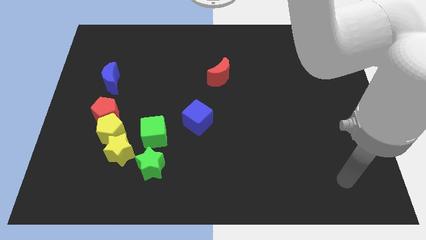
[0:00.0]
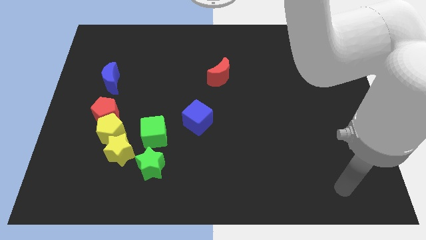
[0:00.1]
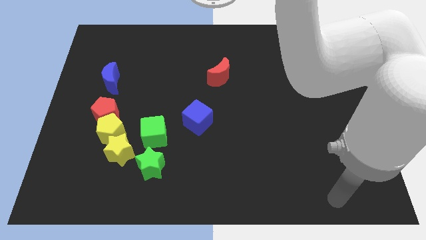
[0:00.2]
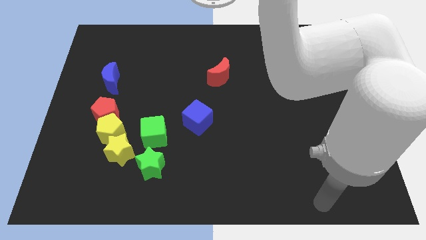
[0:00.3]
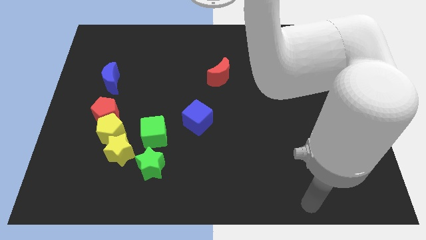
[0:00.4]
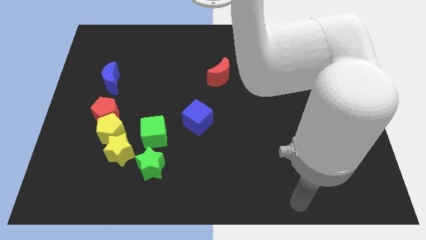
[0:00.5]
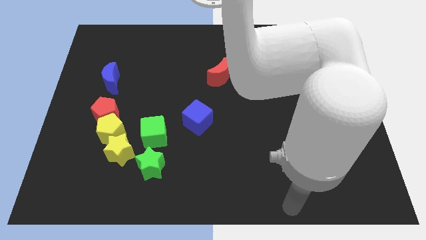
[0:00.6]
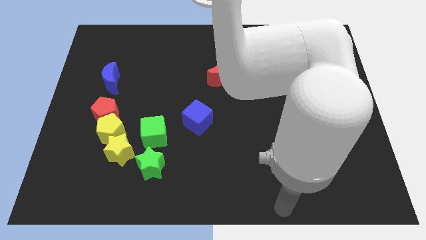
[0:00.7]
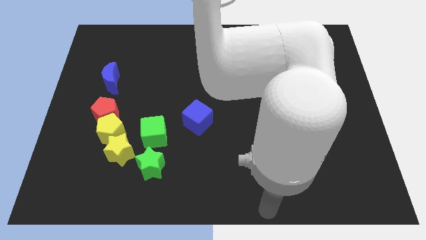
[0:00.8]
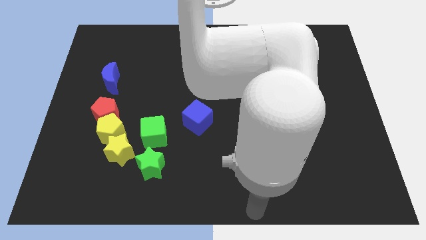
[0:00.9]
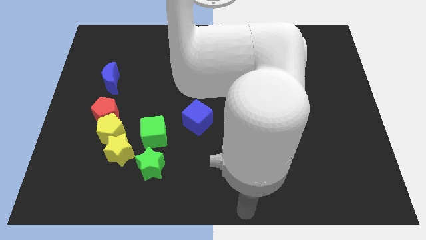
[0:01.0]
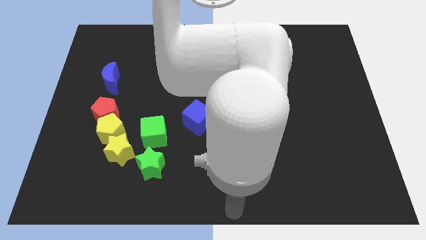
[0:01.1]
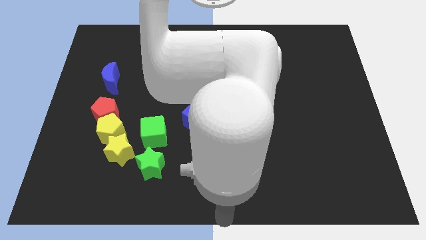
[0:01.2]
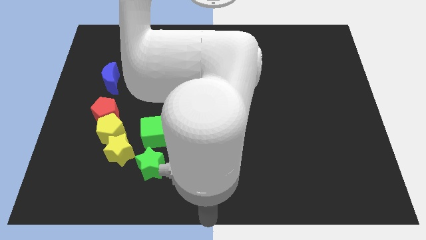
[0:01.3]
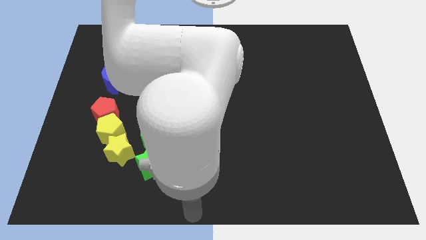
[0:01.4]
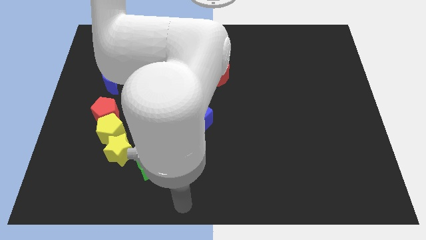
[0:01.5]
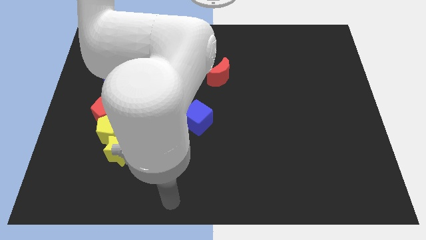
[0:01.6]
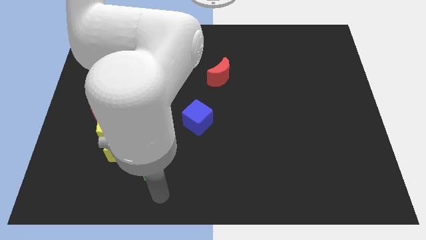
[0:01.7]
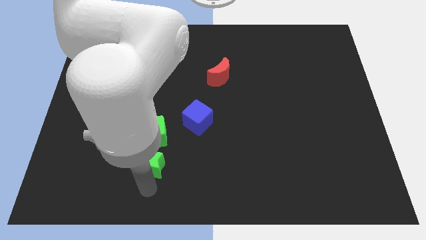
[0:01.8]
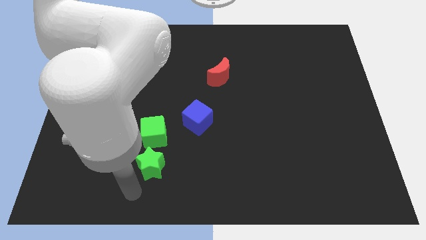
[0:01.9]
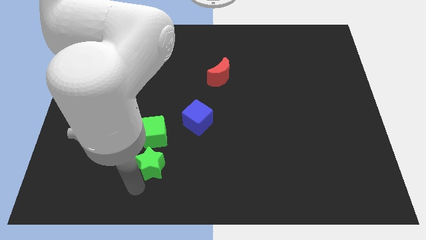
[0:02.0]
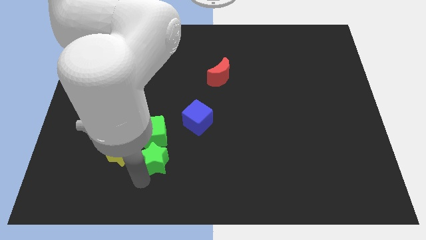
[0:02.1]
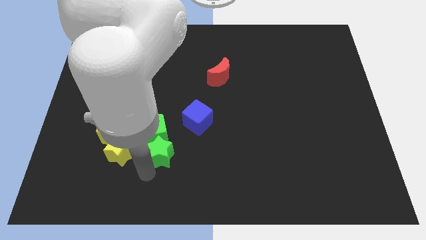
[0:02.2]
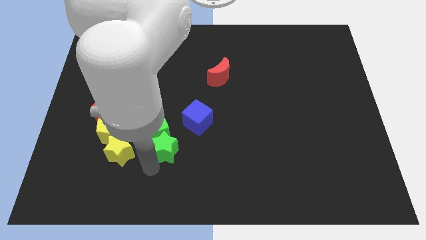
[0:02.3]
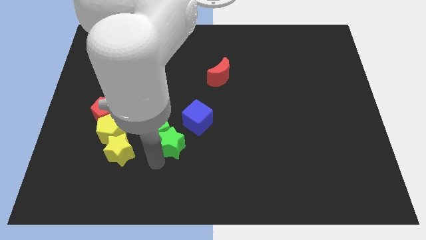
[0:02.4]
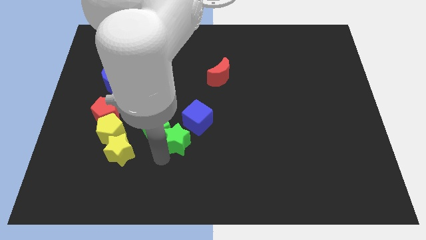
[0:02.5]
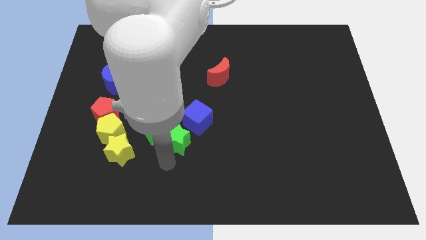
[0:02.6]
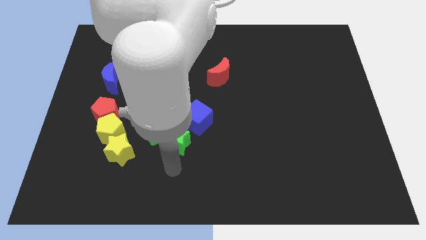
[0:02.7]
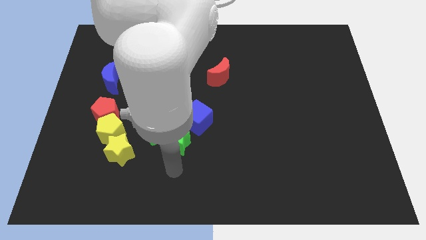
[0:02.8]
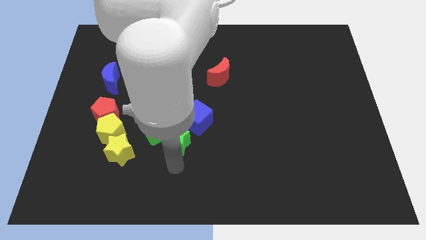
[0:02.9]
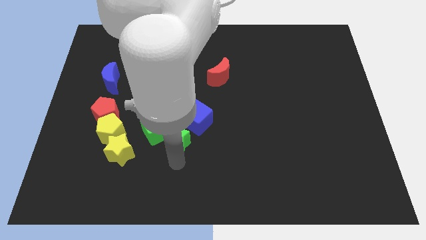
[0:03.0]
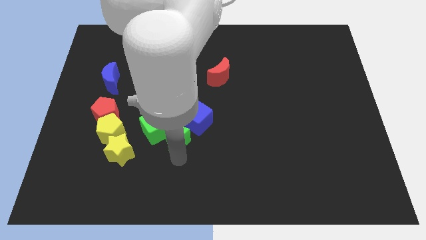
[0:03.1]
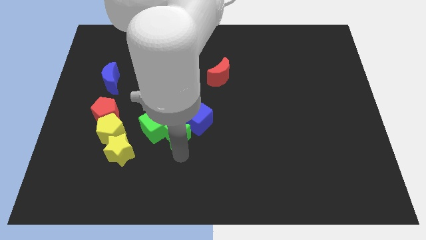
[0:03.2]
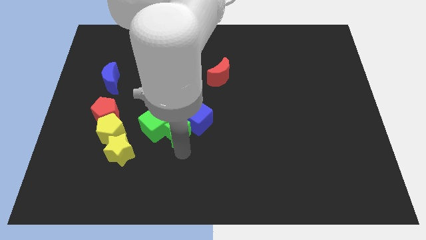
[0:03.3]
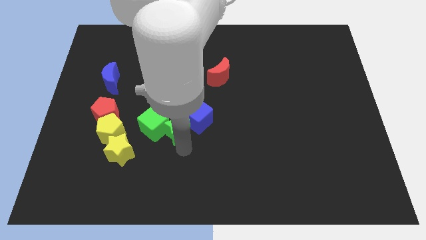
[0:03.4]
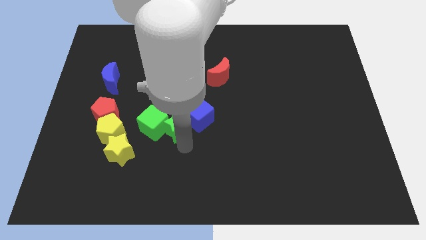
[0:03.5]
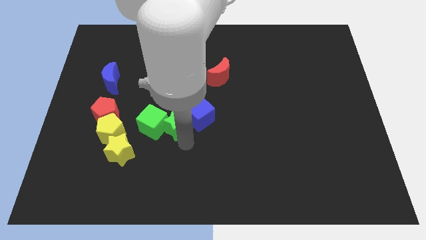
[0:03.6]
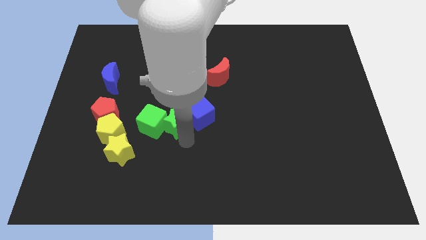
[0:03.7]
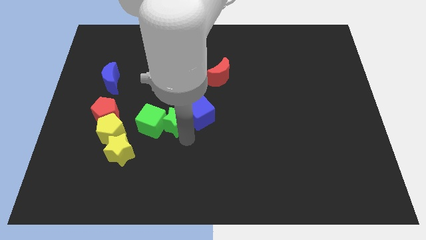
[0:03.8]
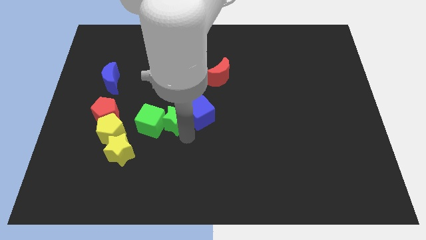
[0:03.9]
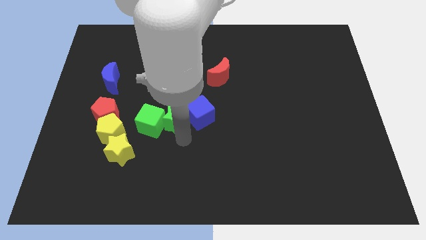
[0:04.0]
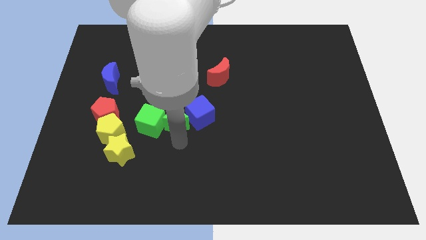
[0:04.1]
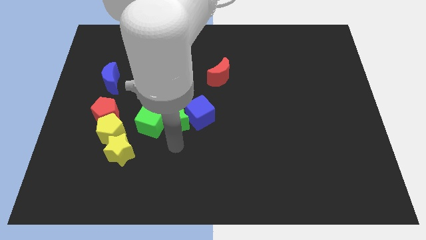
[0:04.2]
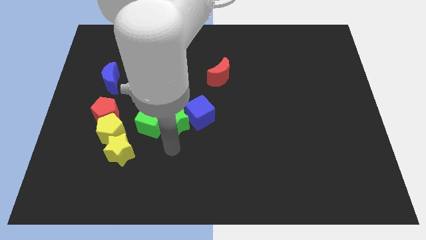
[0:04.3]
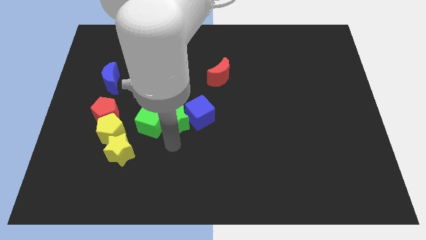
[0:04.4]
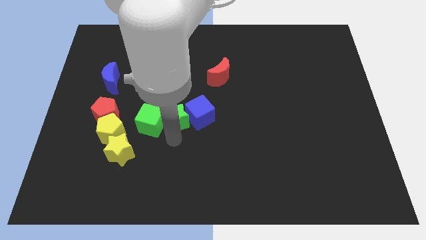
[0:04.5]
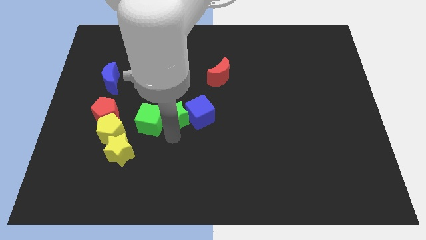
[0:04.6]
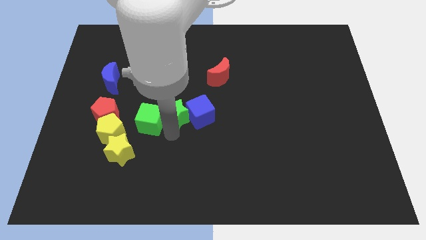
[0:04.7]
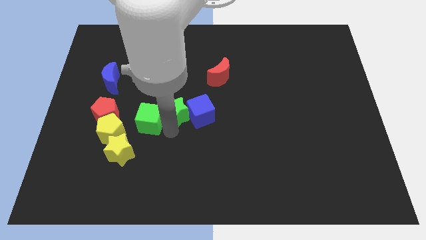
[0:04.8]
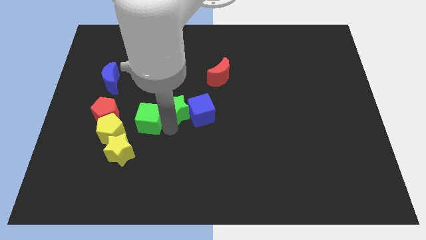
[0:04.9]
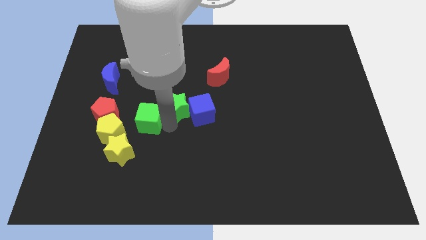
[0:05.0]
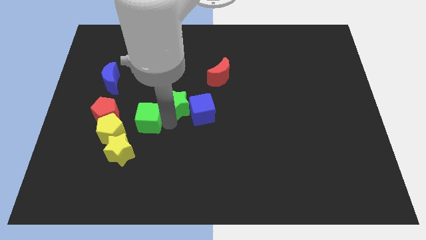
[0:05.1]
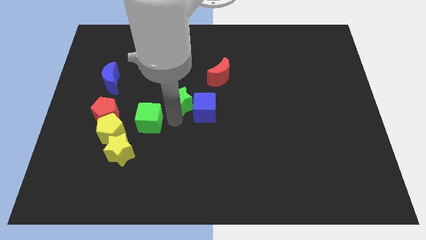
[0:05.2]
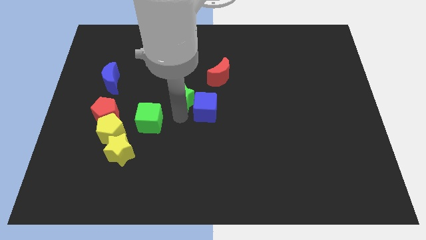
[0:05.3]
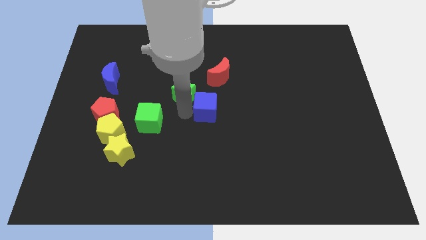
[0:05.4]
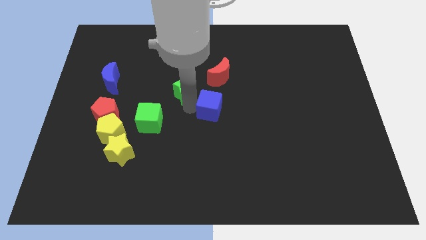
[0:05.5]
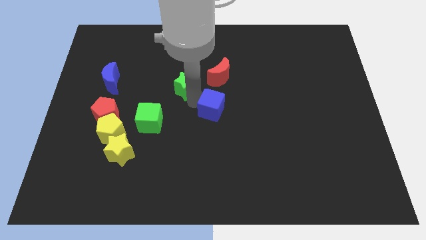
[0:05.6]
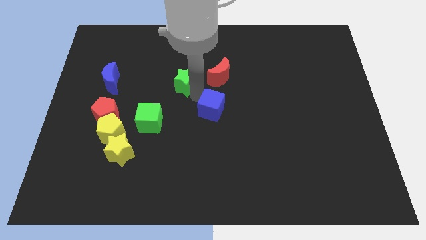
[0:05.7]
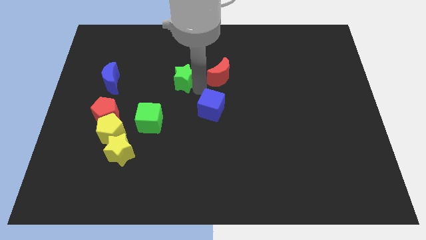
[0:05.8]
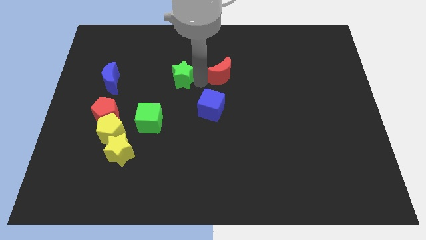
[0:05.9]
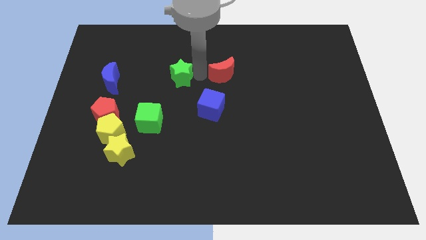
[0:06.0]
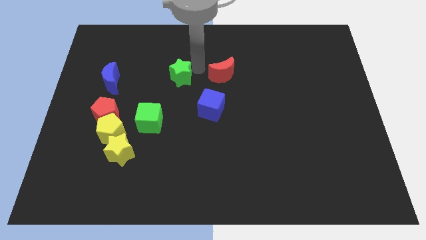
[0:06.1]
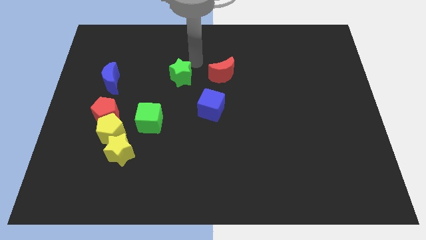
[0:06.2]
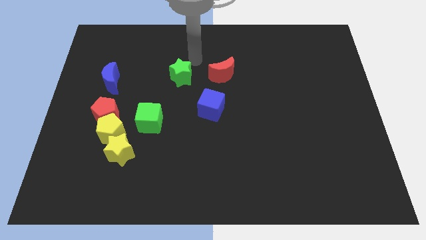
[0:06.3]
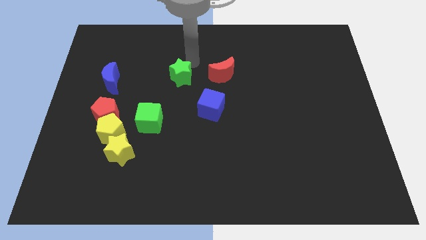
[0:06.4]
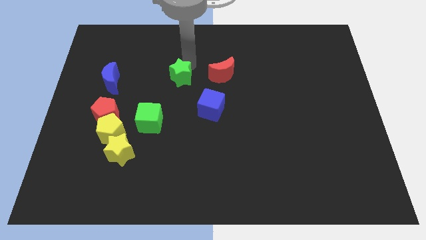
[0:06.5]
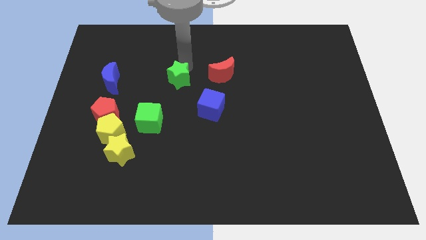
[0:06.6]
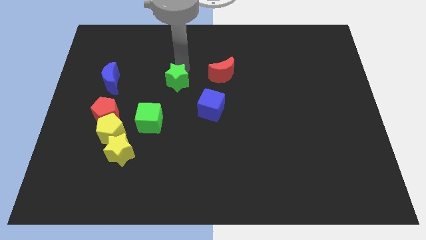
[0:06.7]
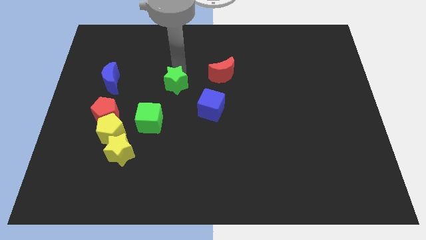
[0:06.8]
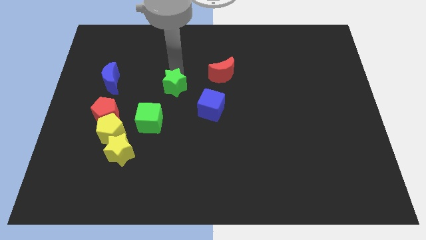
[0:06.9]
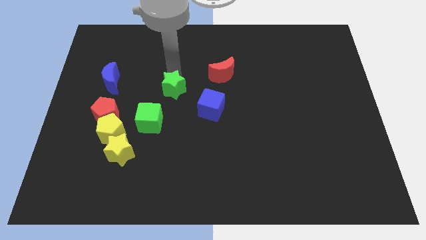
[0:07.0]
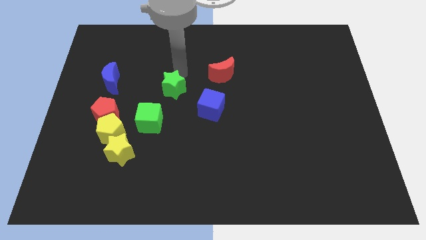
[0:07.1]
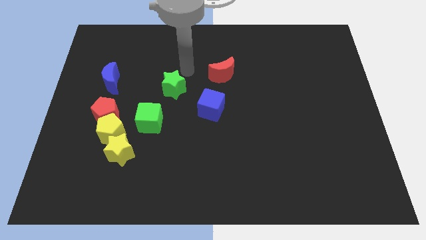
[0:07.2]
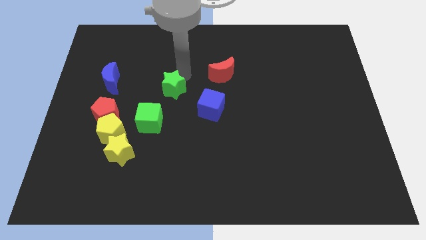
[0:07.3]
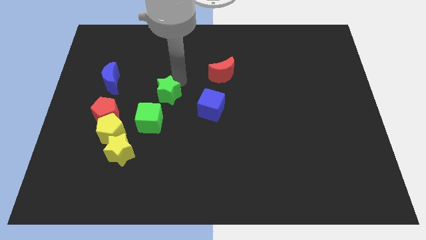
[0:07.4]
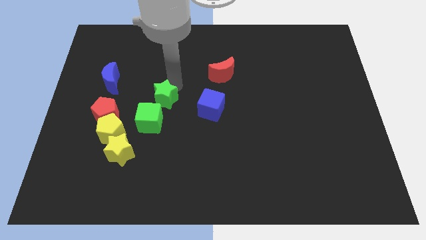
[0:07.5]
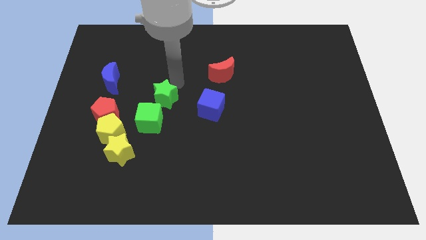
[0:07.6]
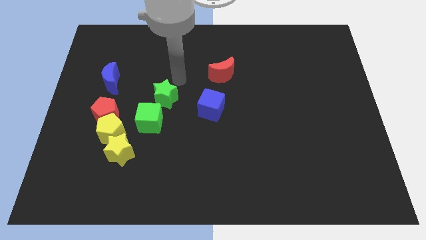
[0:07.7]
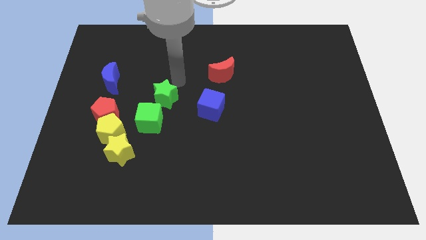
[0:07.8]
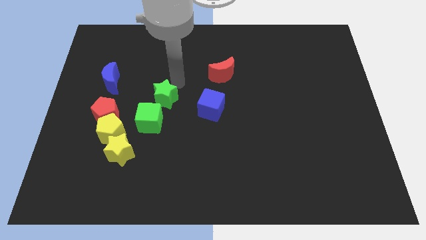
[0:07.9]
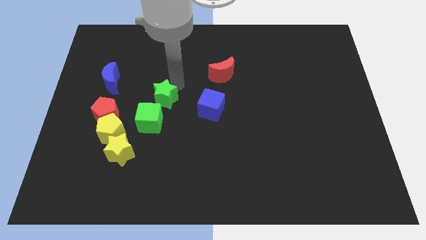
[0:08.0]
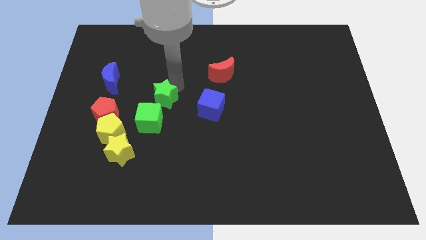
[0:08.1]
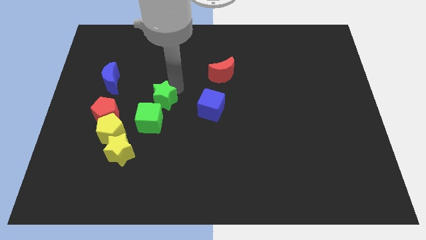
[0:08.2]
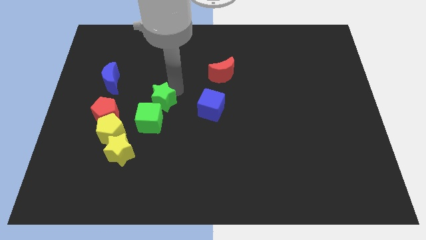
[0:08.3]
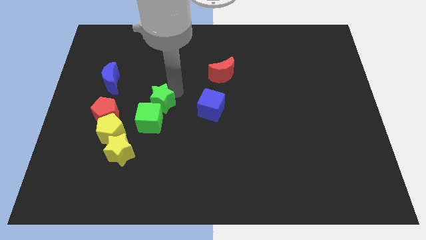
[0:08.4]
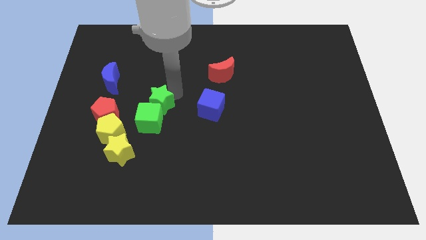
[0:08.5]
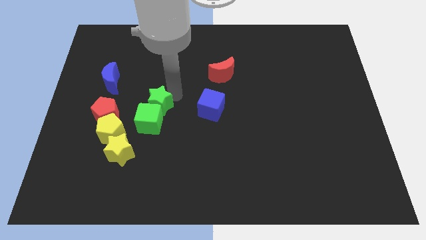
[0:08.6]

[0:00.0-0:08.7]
put the green star to the top right side of the yellow pentagon
